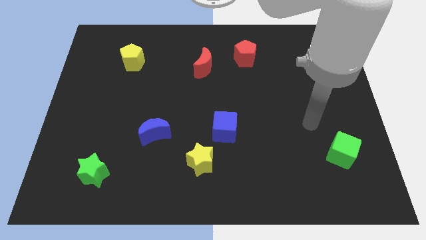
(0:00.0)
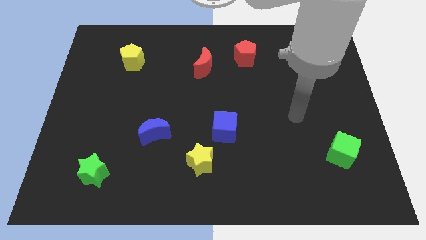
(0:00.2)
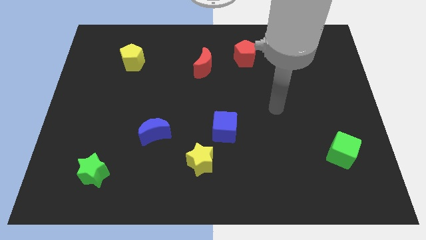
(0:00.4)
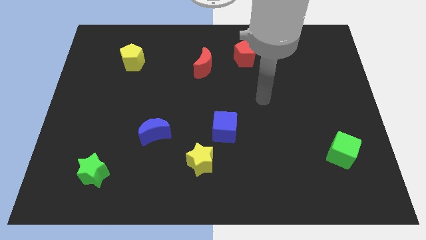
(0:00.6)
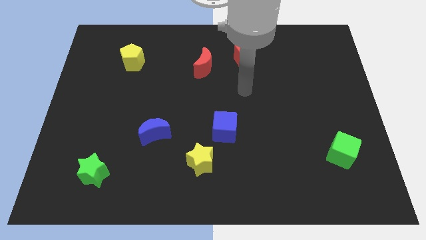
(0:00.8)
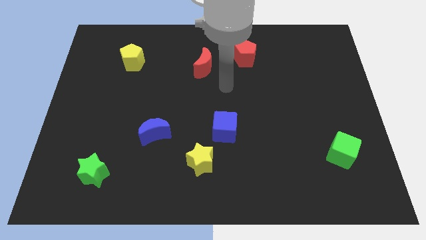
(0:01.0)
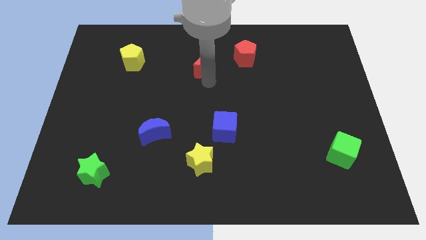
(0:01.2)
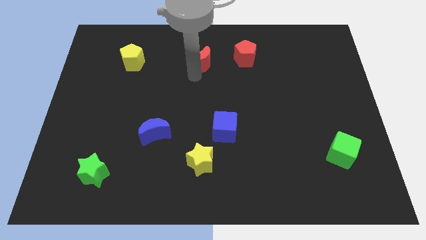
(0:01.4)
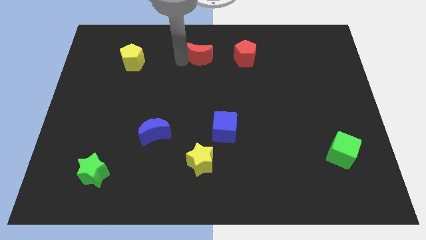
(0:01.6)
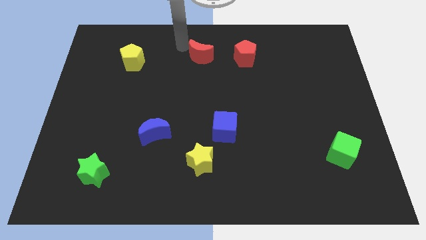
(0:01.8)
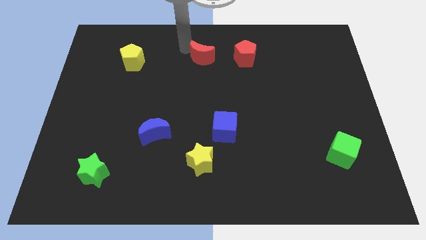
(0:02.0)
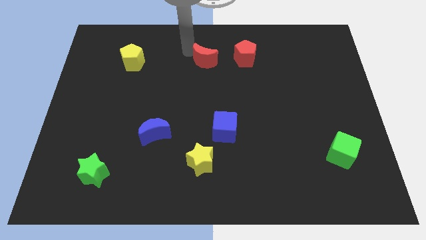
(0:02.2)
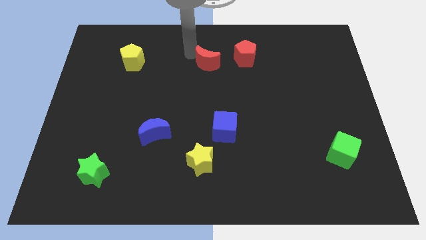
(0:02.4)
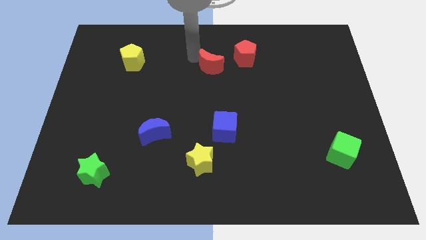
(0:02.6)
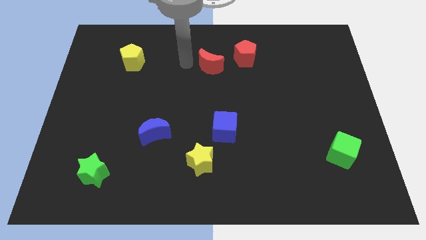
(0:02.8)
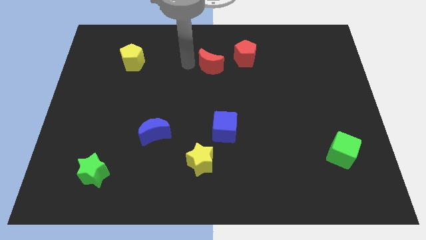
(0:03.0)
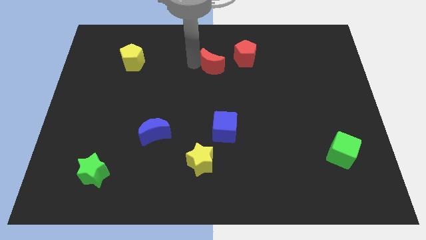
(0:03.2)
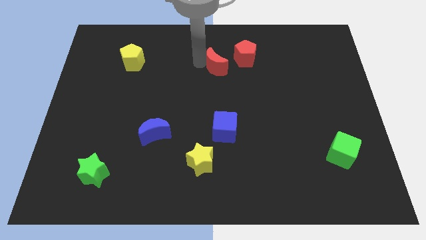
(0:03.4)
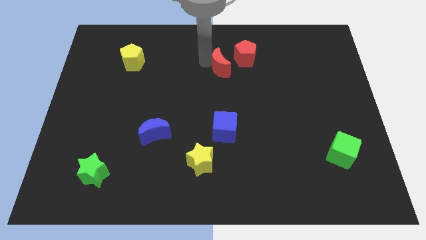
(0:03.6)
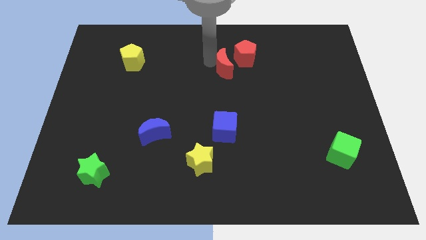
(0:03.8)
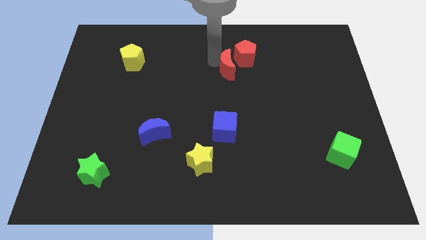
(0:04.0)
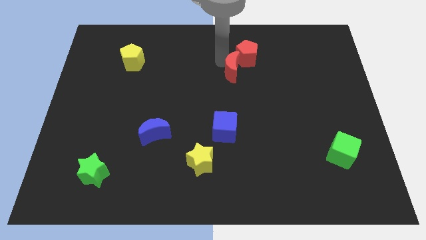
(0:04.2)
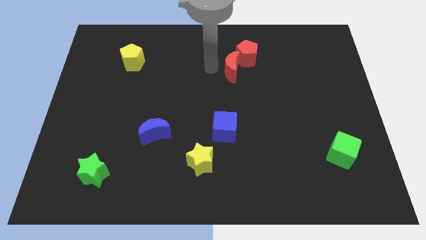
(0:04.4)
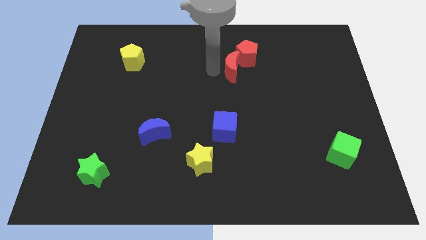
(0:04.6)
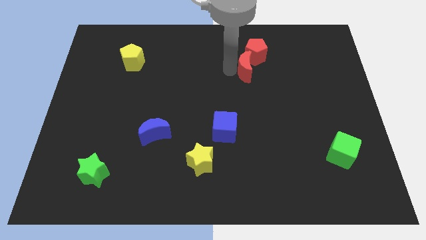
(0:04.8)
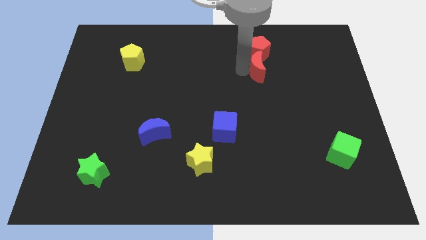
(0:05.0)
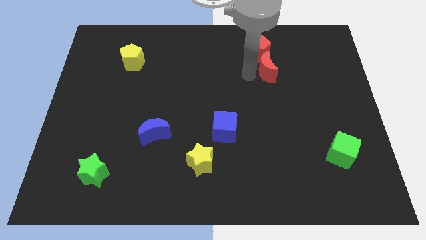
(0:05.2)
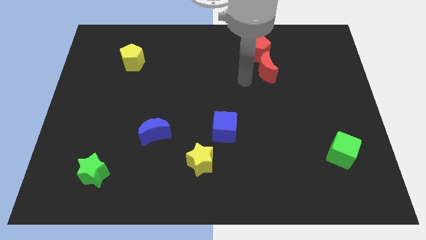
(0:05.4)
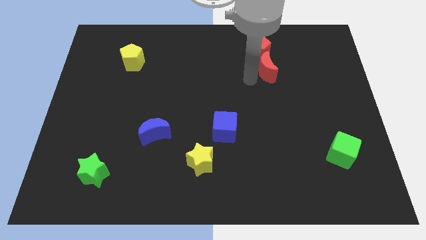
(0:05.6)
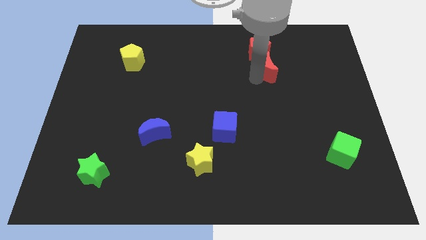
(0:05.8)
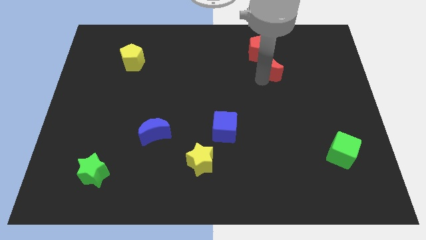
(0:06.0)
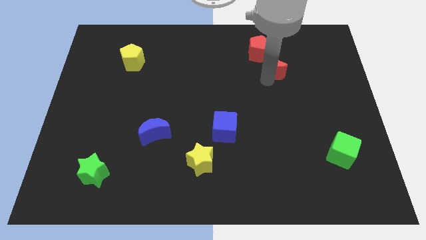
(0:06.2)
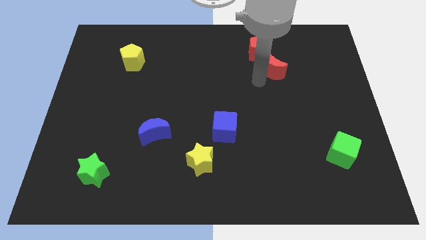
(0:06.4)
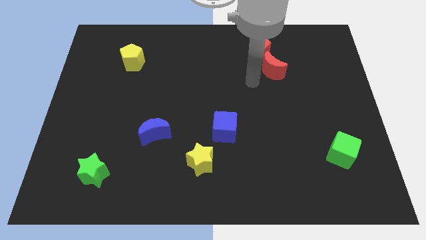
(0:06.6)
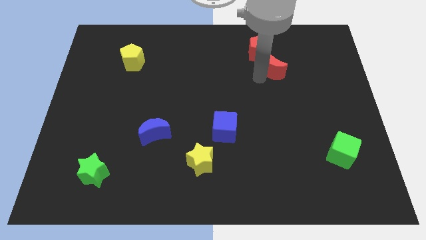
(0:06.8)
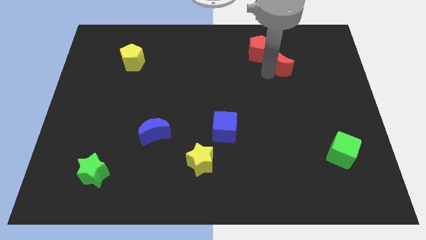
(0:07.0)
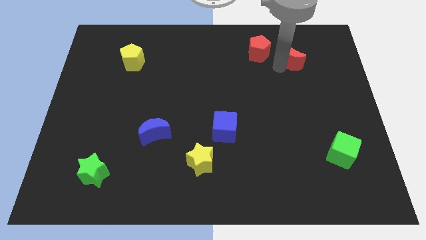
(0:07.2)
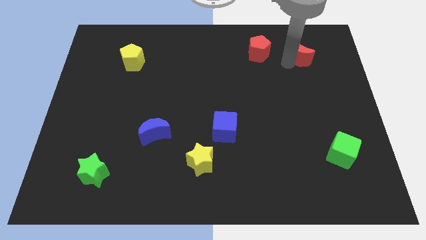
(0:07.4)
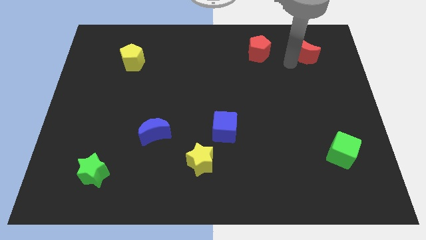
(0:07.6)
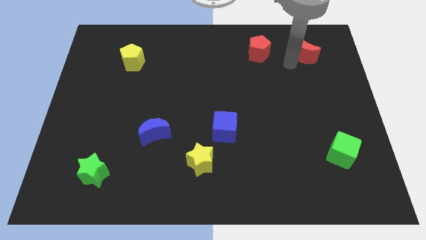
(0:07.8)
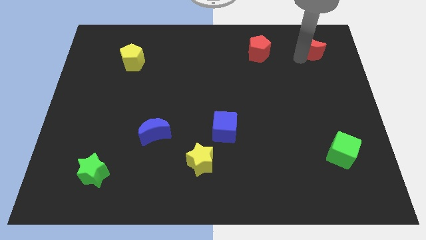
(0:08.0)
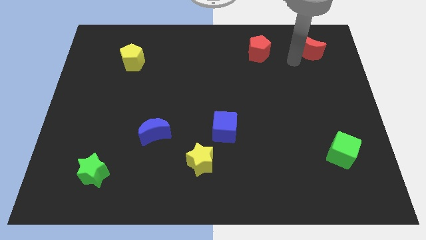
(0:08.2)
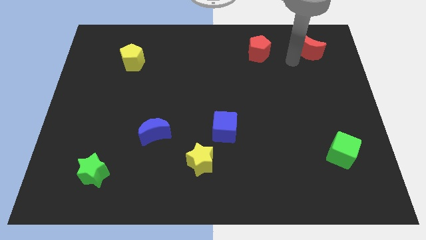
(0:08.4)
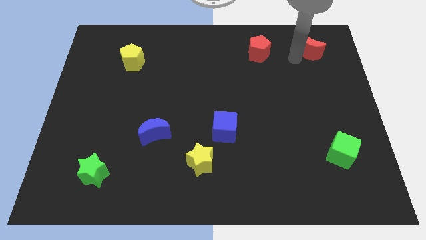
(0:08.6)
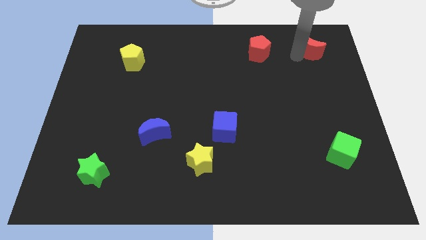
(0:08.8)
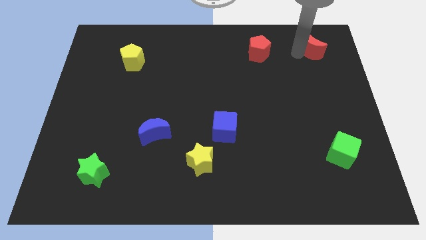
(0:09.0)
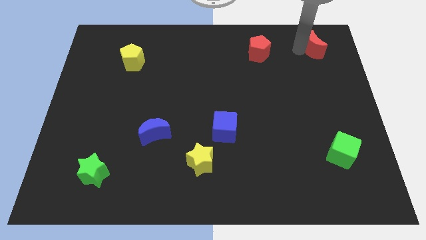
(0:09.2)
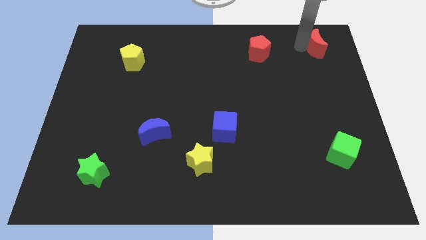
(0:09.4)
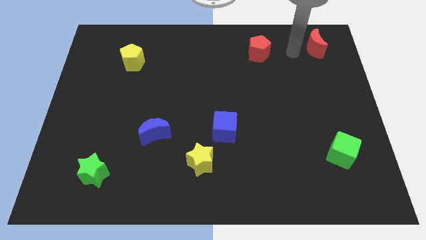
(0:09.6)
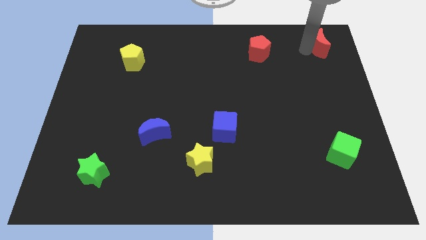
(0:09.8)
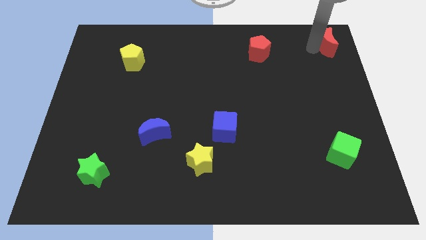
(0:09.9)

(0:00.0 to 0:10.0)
push the red moon to the top right of the board

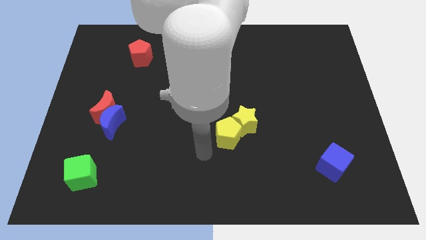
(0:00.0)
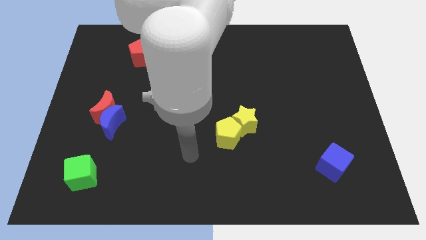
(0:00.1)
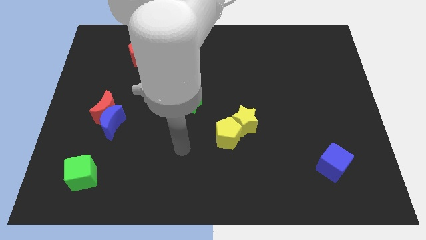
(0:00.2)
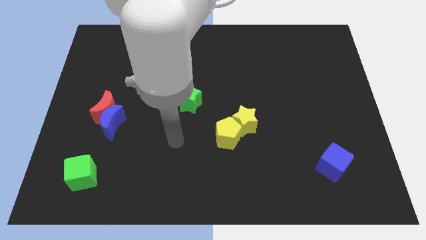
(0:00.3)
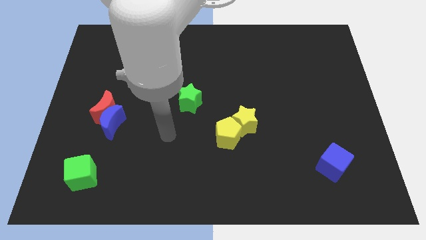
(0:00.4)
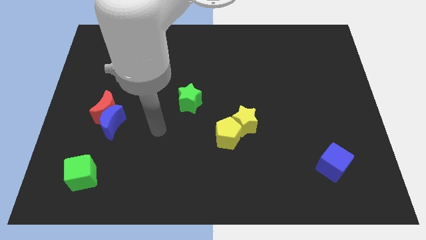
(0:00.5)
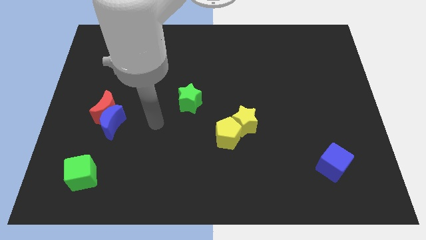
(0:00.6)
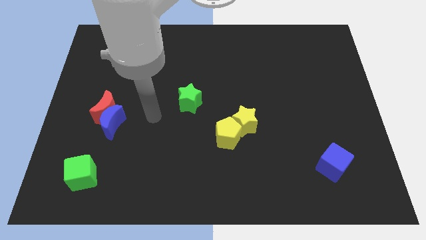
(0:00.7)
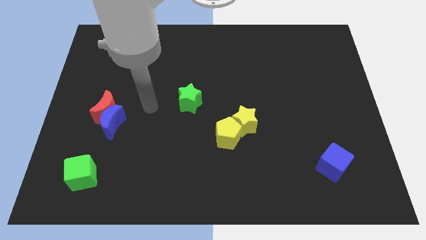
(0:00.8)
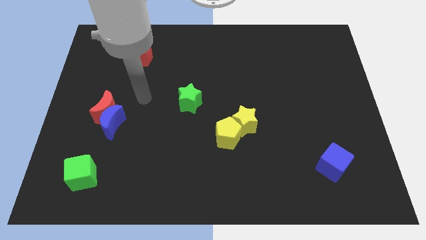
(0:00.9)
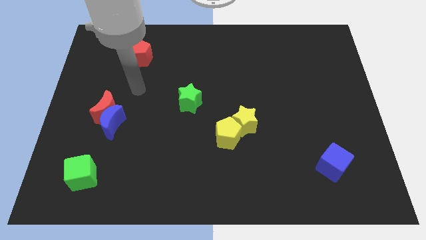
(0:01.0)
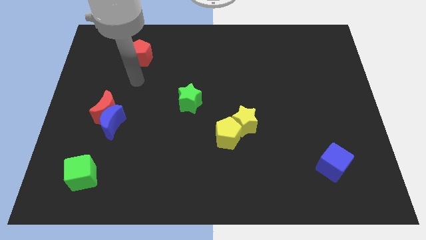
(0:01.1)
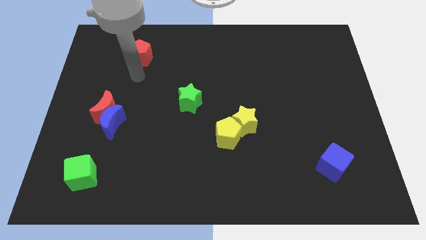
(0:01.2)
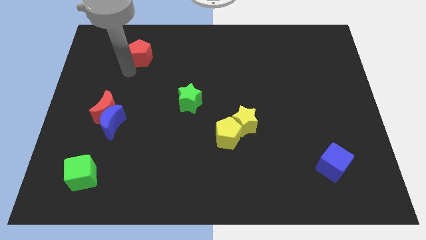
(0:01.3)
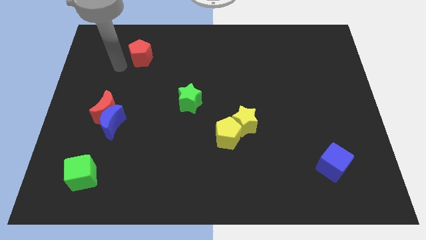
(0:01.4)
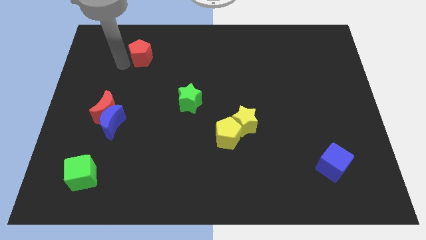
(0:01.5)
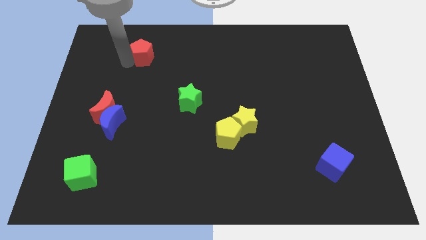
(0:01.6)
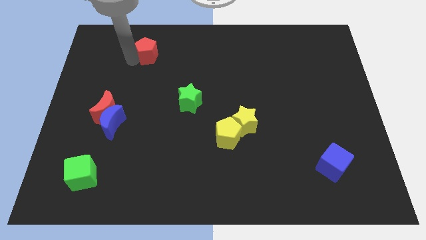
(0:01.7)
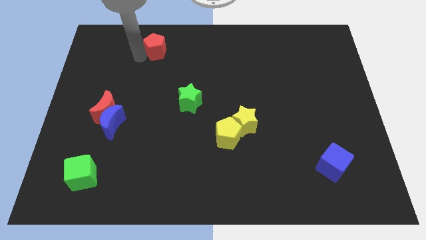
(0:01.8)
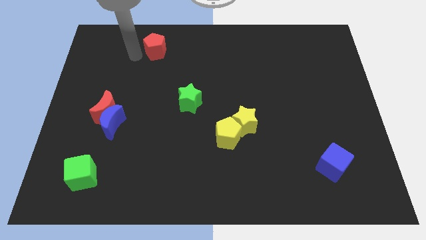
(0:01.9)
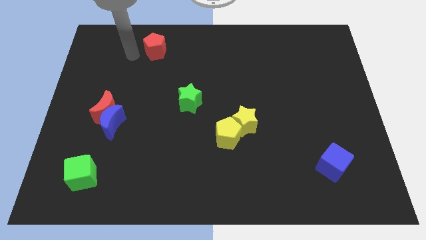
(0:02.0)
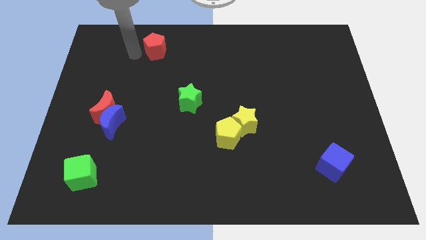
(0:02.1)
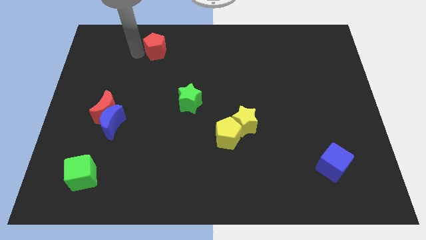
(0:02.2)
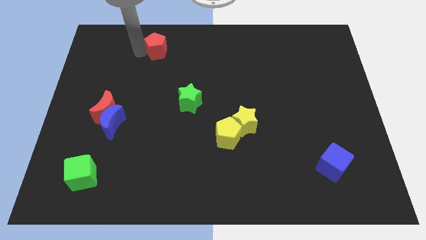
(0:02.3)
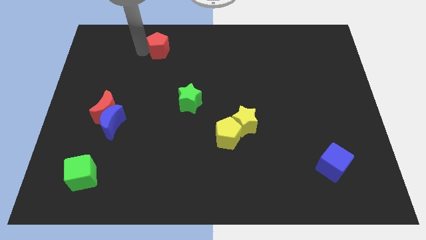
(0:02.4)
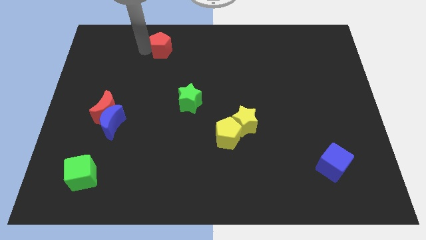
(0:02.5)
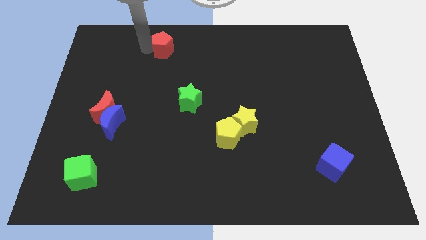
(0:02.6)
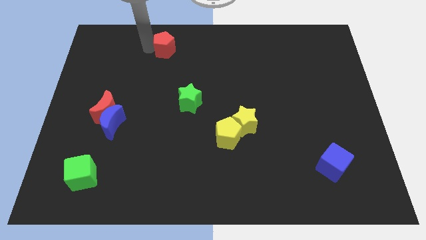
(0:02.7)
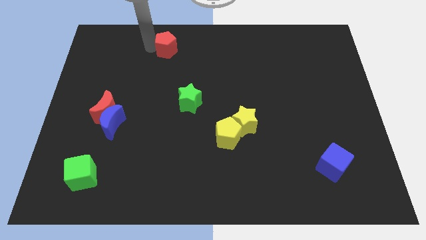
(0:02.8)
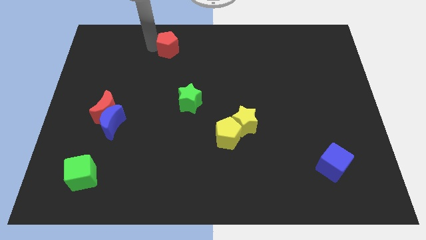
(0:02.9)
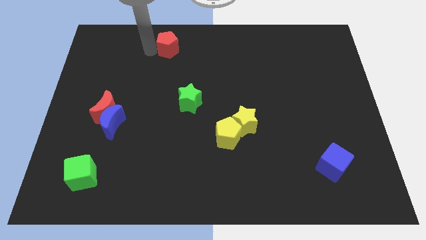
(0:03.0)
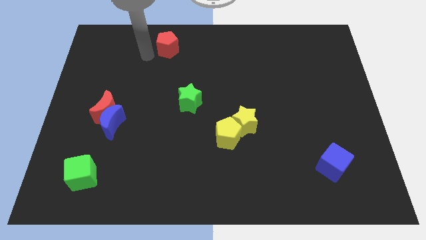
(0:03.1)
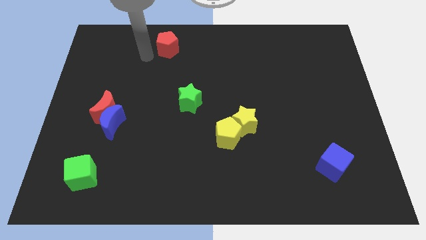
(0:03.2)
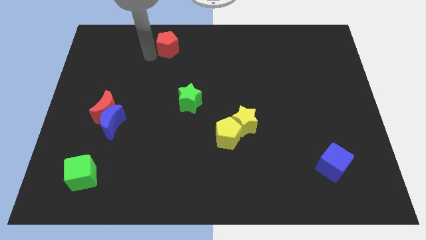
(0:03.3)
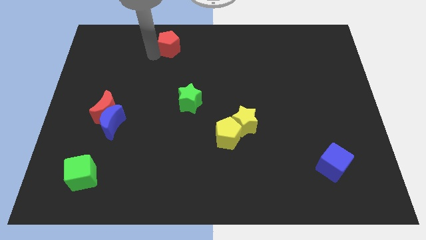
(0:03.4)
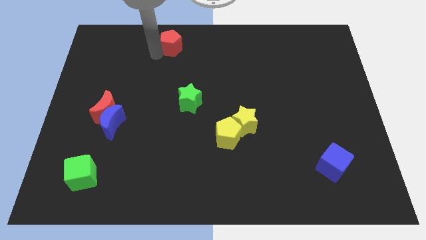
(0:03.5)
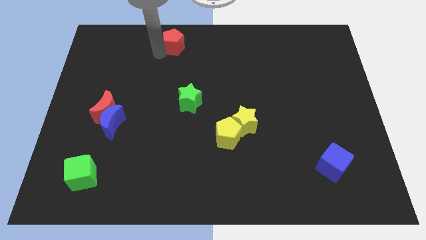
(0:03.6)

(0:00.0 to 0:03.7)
move the red pentagon to the top side
